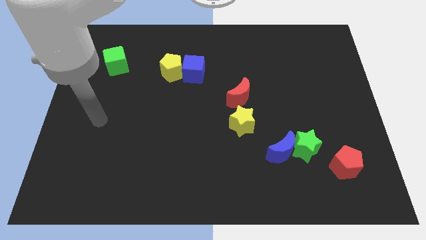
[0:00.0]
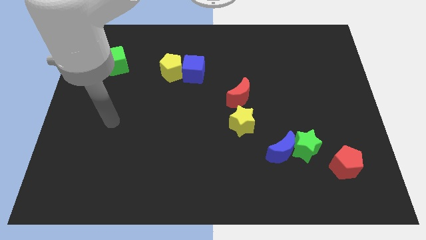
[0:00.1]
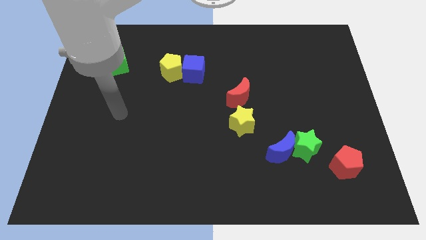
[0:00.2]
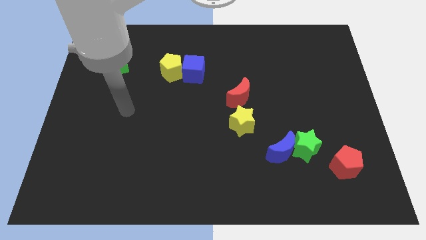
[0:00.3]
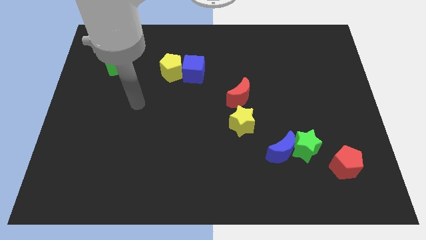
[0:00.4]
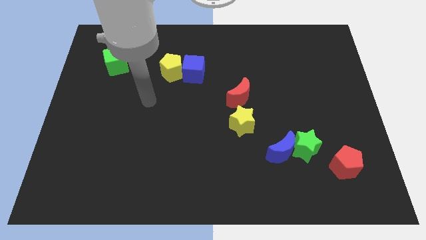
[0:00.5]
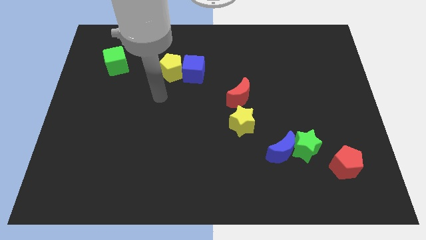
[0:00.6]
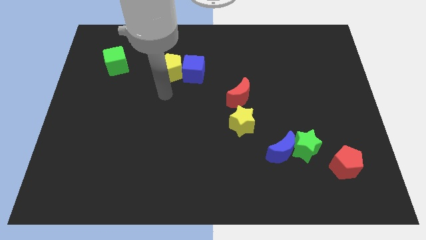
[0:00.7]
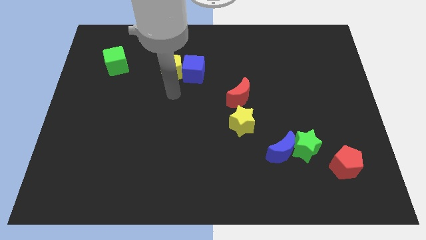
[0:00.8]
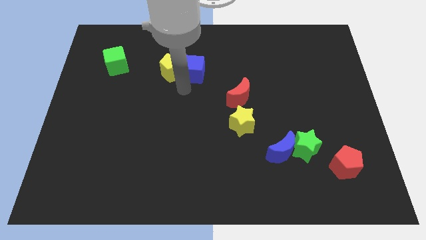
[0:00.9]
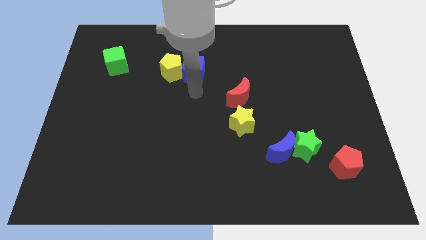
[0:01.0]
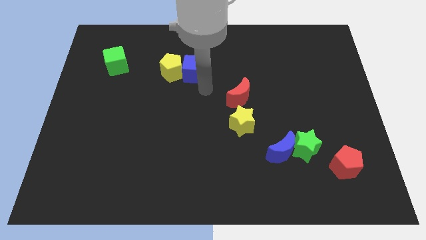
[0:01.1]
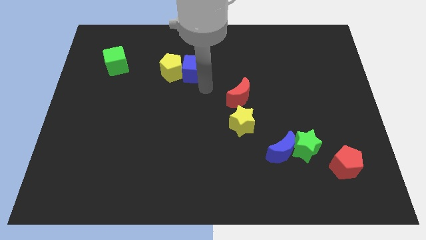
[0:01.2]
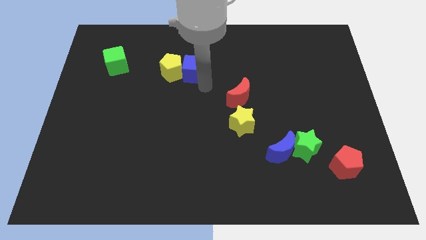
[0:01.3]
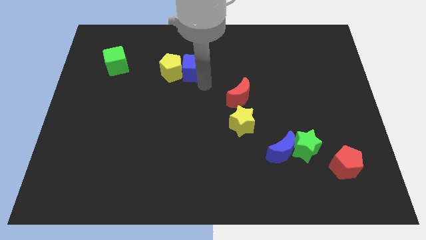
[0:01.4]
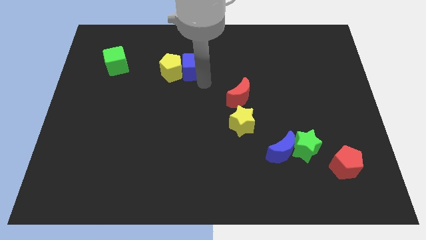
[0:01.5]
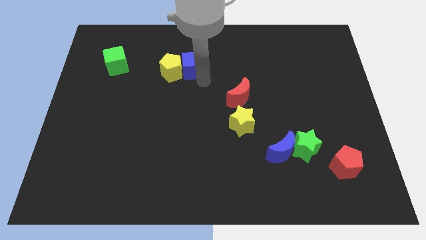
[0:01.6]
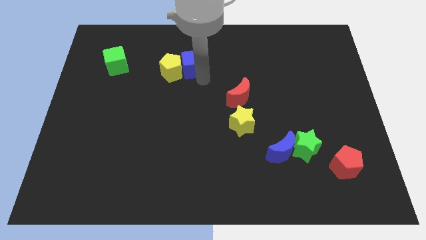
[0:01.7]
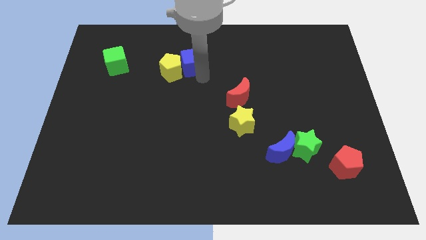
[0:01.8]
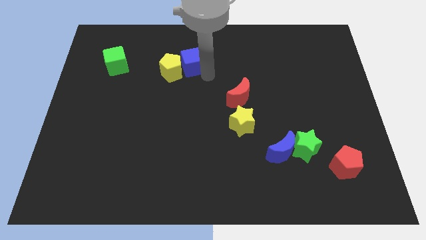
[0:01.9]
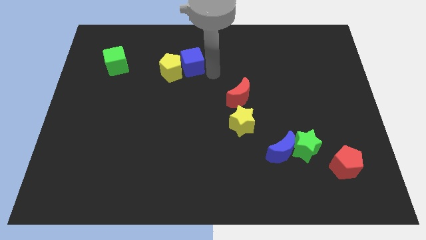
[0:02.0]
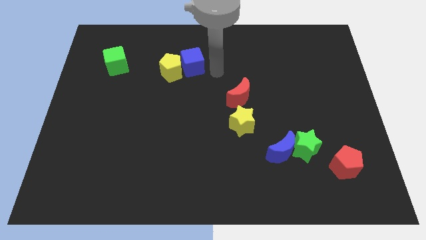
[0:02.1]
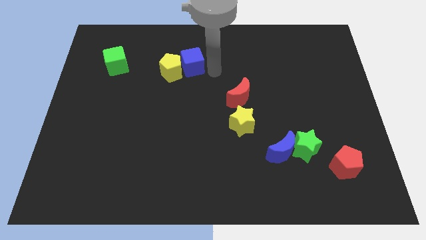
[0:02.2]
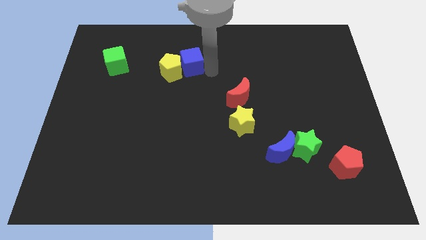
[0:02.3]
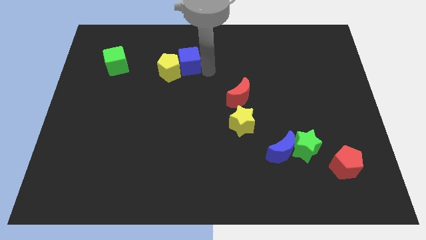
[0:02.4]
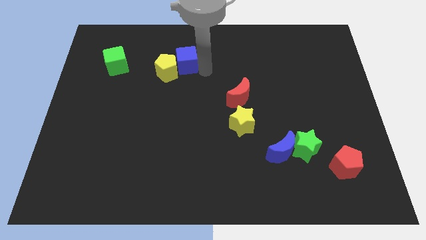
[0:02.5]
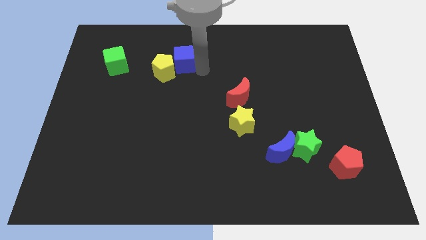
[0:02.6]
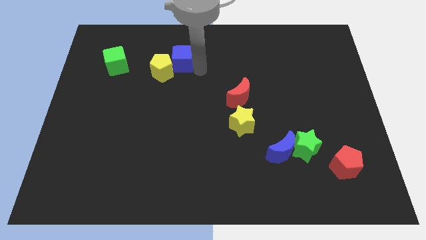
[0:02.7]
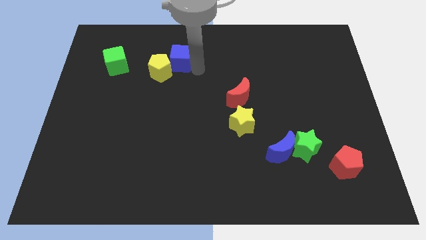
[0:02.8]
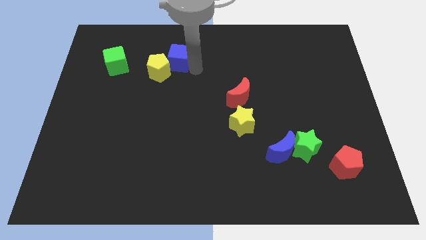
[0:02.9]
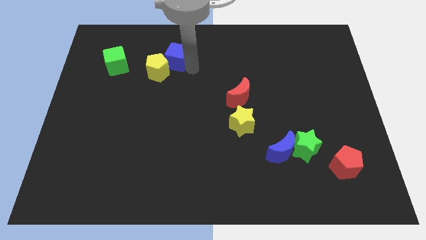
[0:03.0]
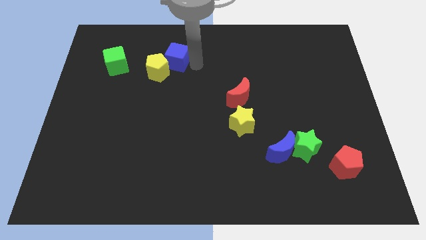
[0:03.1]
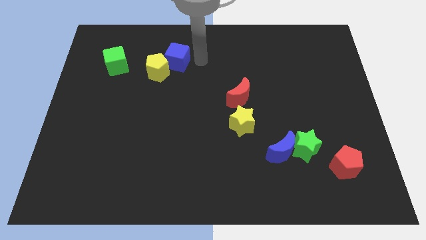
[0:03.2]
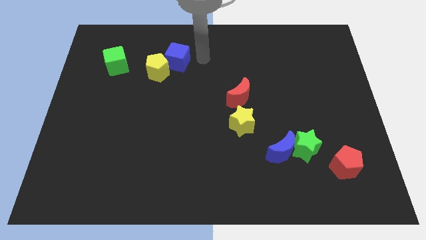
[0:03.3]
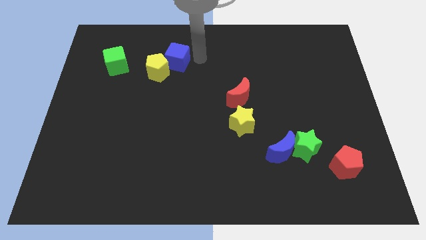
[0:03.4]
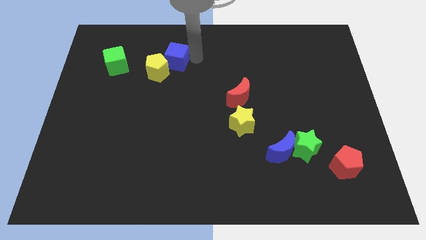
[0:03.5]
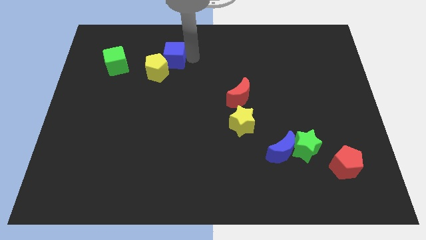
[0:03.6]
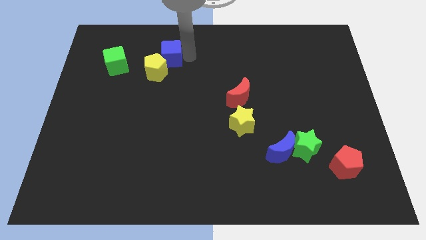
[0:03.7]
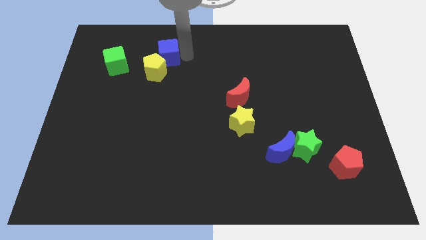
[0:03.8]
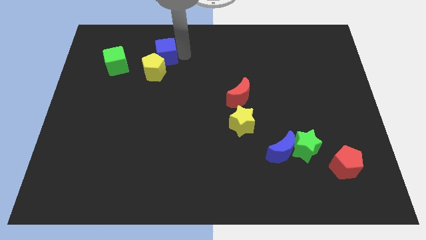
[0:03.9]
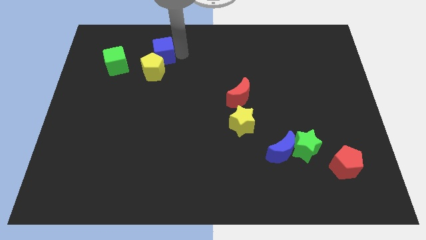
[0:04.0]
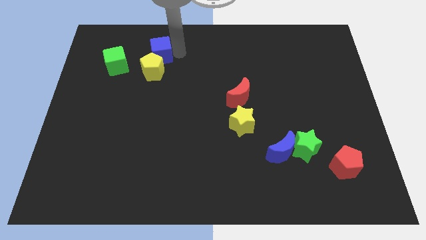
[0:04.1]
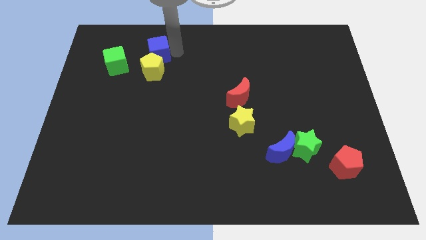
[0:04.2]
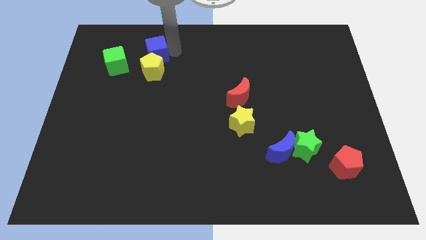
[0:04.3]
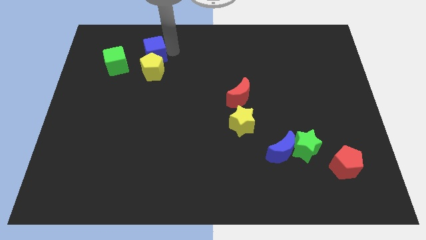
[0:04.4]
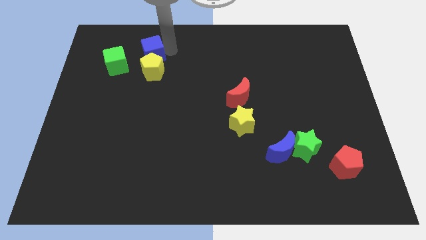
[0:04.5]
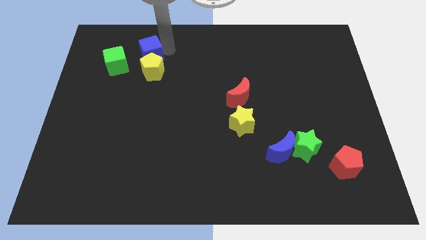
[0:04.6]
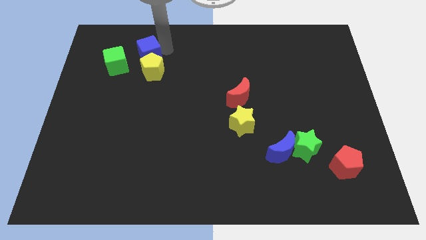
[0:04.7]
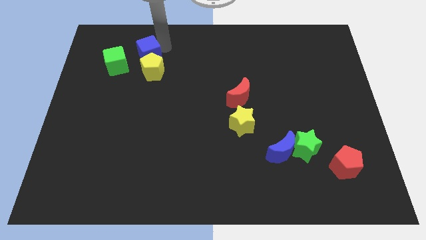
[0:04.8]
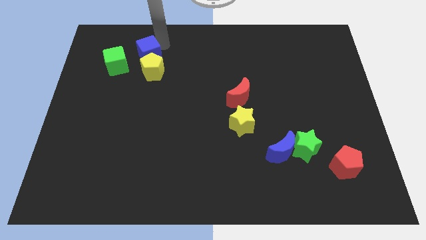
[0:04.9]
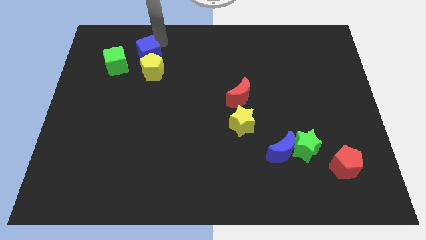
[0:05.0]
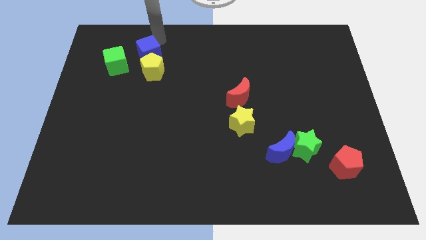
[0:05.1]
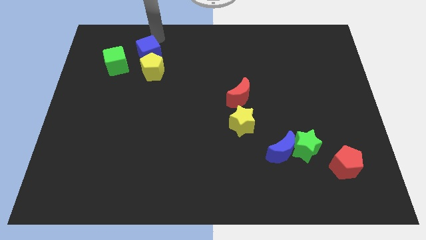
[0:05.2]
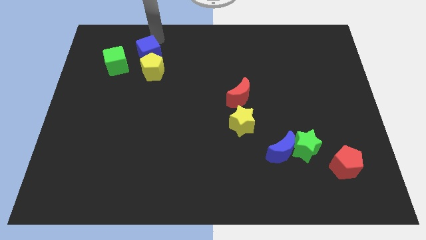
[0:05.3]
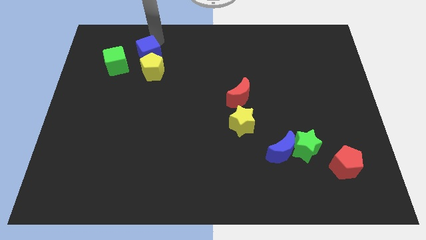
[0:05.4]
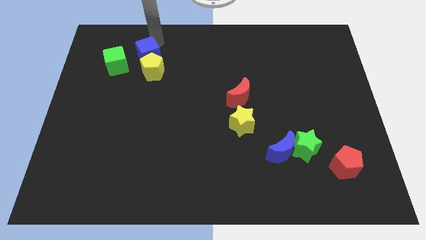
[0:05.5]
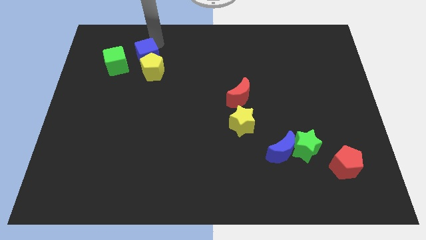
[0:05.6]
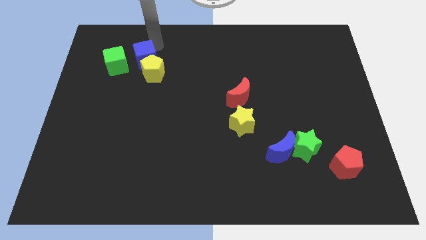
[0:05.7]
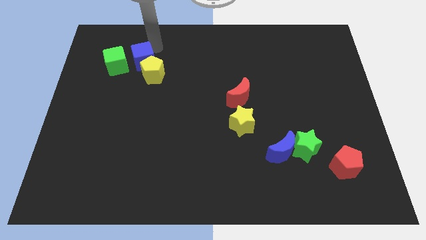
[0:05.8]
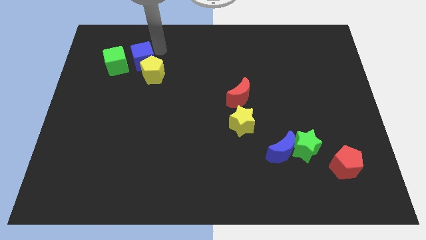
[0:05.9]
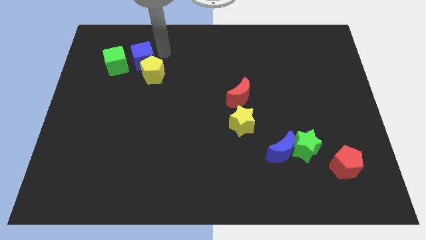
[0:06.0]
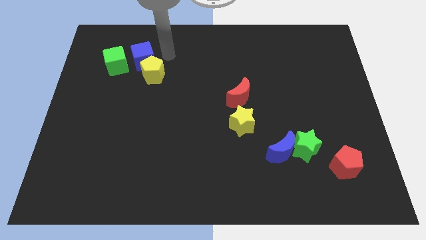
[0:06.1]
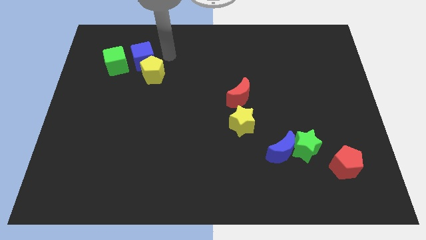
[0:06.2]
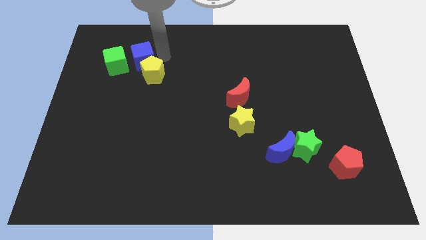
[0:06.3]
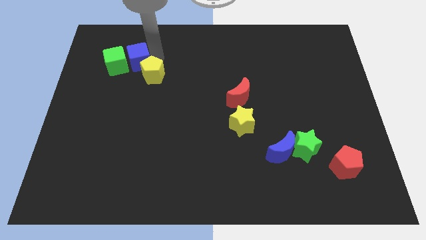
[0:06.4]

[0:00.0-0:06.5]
move the blue cube to the green cube
